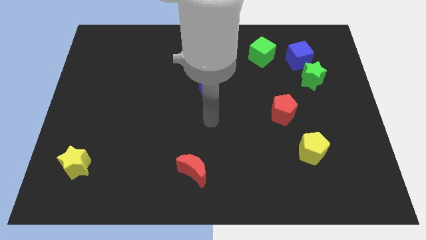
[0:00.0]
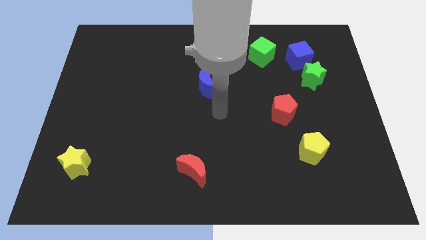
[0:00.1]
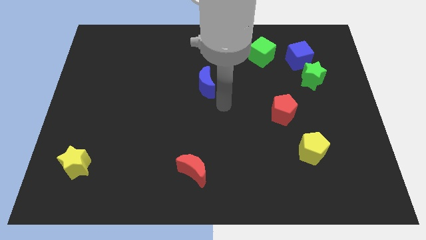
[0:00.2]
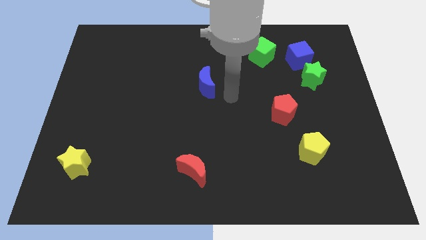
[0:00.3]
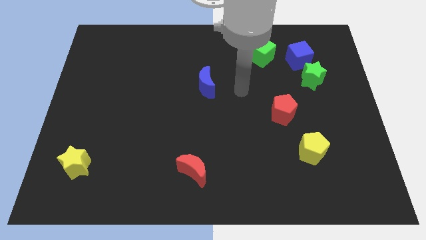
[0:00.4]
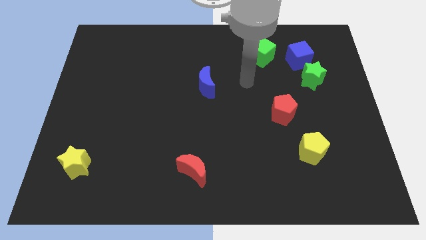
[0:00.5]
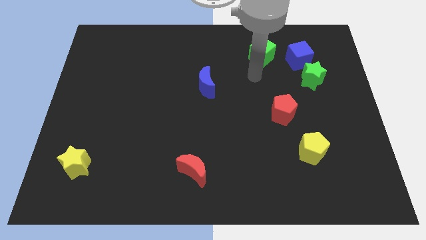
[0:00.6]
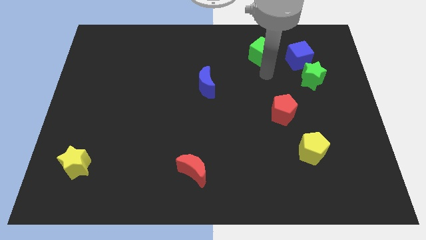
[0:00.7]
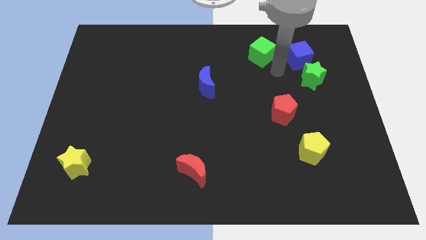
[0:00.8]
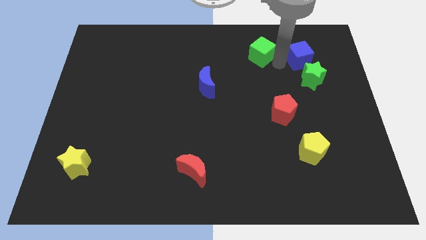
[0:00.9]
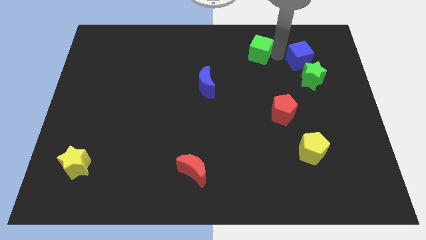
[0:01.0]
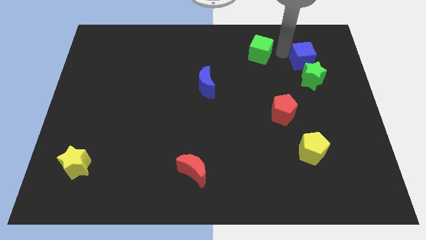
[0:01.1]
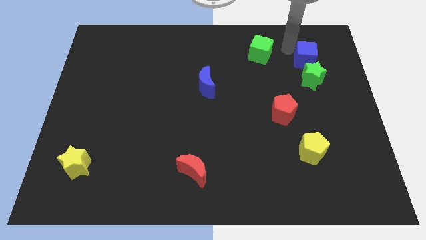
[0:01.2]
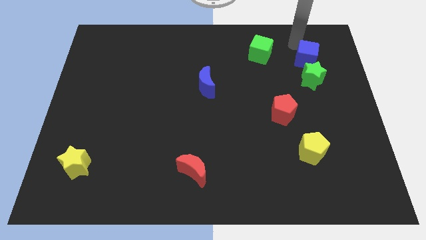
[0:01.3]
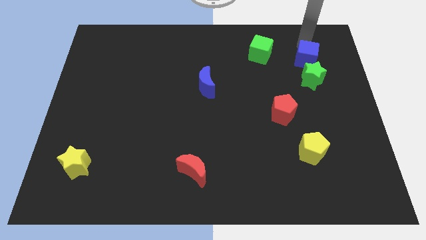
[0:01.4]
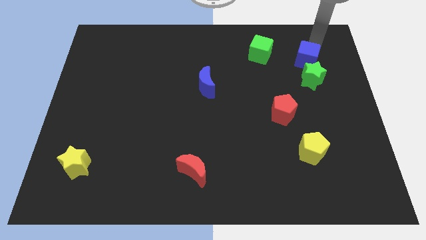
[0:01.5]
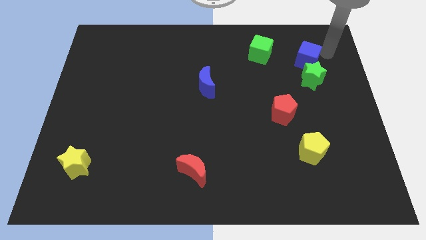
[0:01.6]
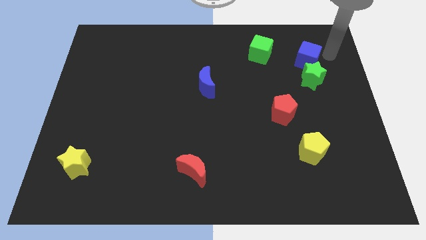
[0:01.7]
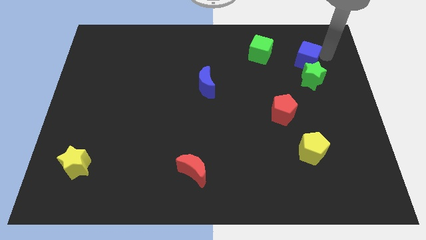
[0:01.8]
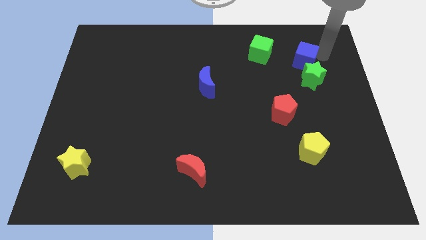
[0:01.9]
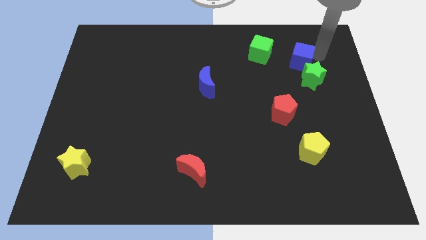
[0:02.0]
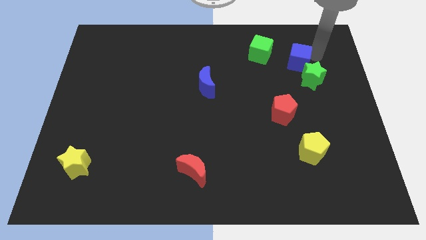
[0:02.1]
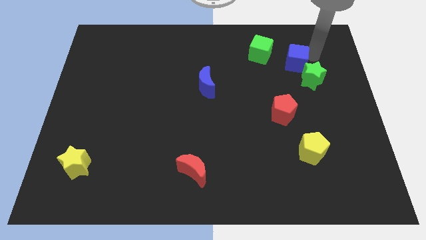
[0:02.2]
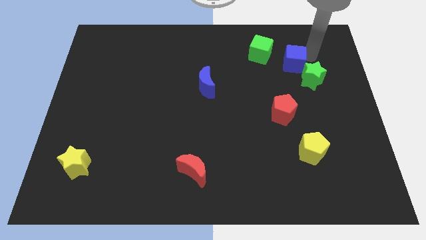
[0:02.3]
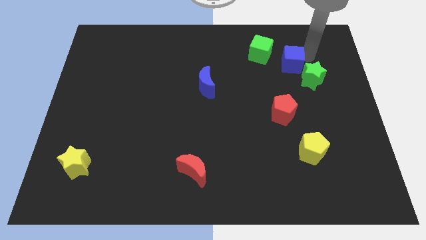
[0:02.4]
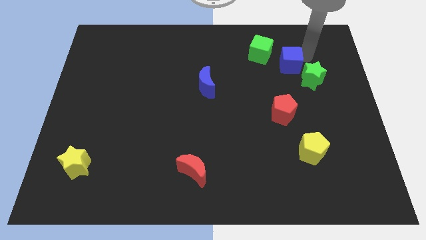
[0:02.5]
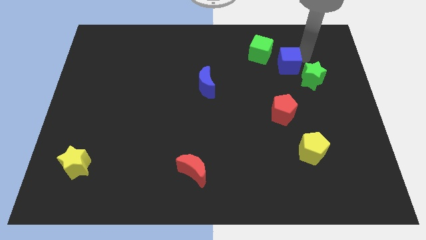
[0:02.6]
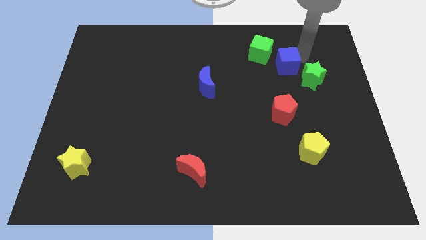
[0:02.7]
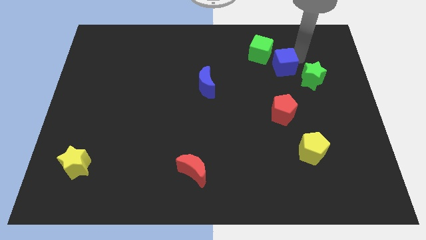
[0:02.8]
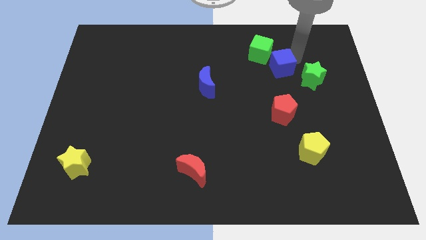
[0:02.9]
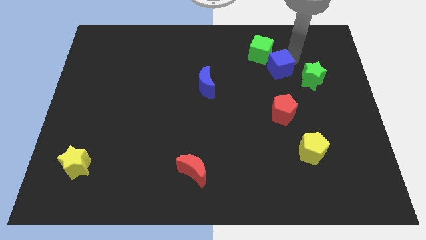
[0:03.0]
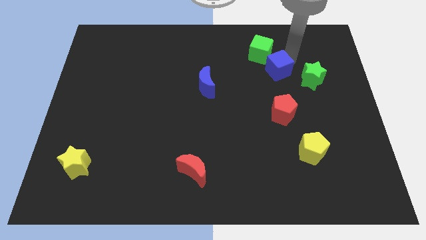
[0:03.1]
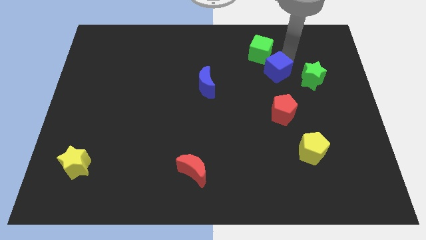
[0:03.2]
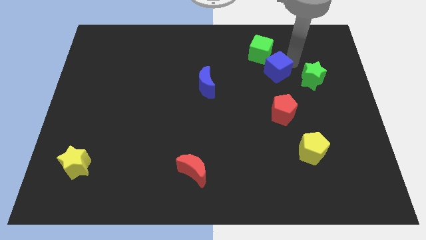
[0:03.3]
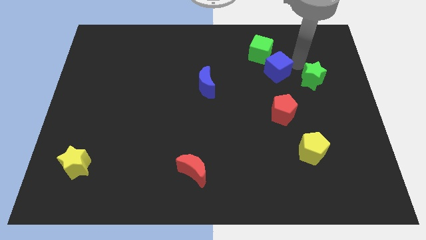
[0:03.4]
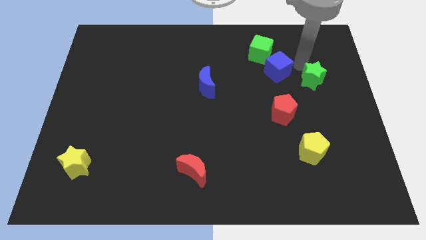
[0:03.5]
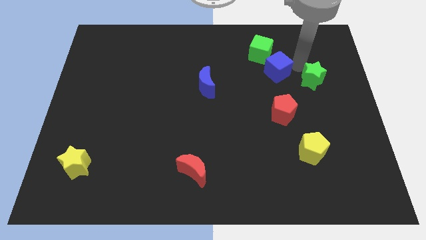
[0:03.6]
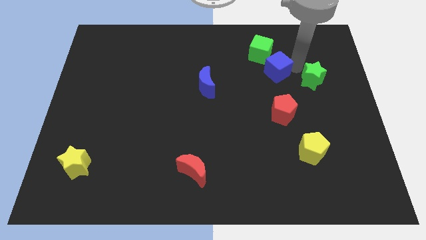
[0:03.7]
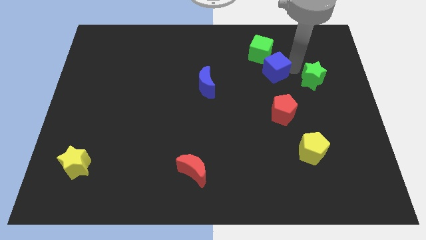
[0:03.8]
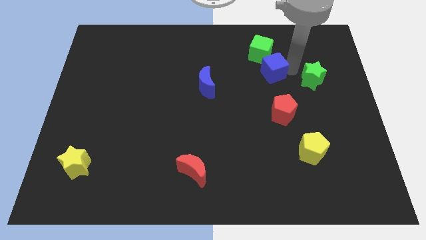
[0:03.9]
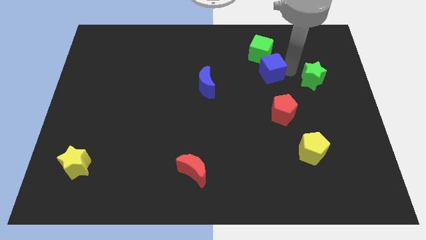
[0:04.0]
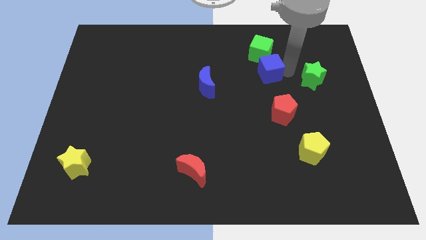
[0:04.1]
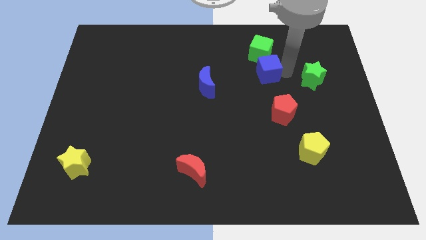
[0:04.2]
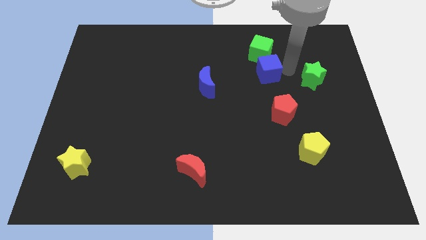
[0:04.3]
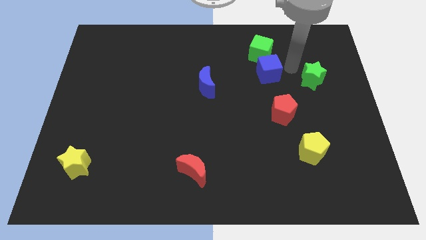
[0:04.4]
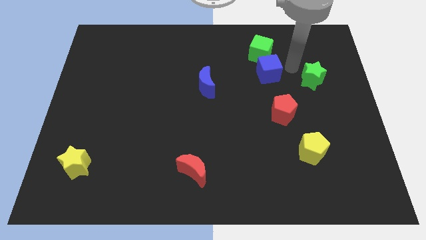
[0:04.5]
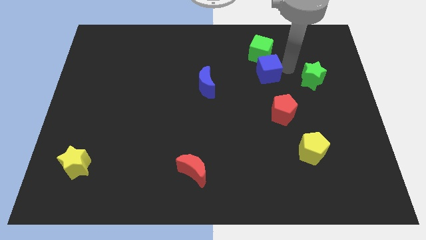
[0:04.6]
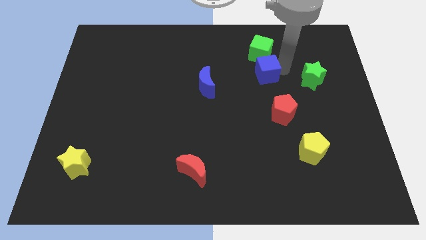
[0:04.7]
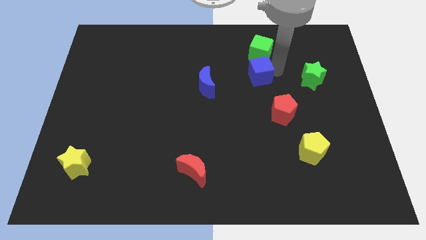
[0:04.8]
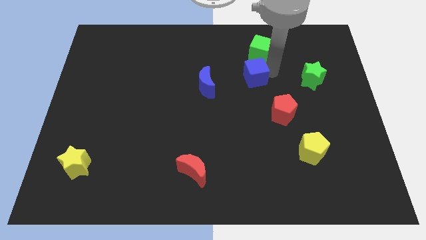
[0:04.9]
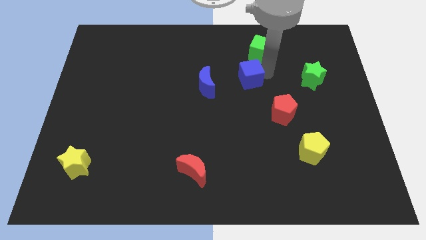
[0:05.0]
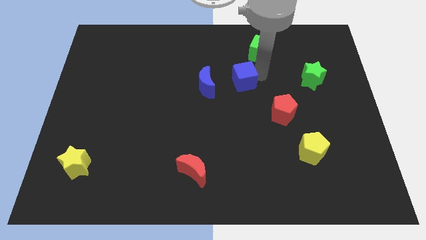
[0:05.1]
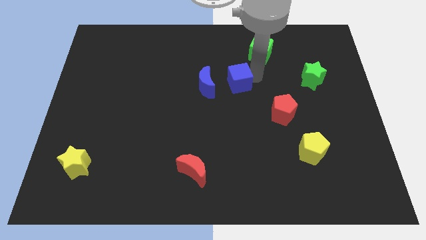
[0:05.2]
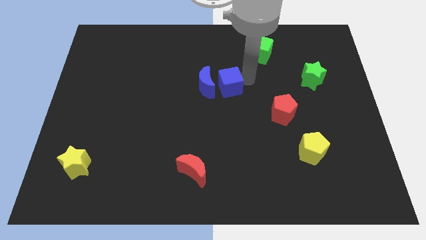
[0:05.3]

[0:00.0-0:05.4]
slide the blue cube towards the blue moon

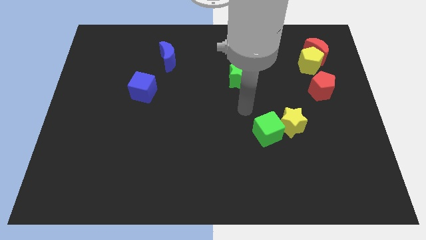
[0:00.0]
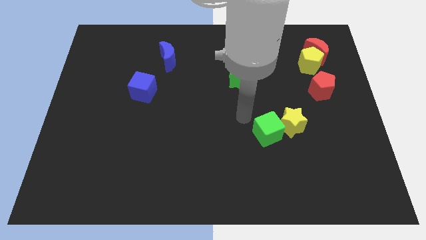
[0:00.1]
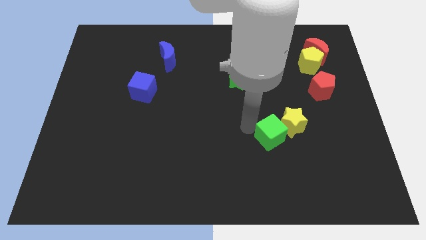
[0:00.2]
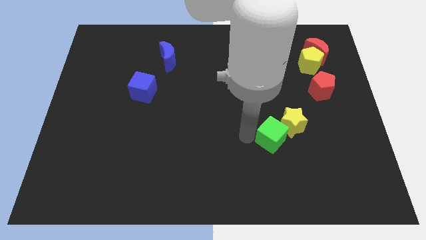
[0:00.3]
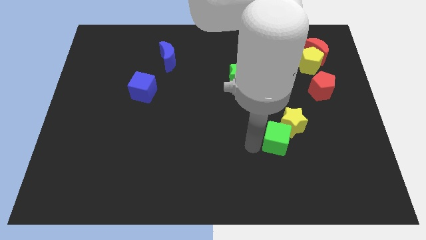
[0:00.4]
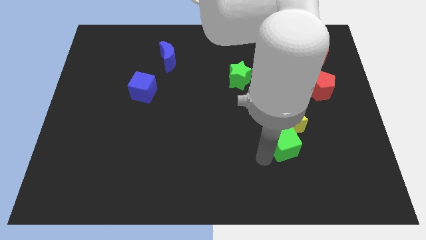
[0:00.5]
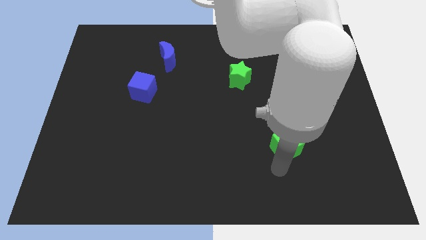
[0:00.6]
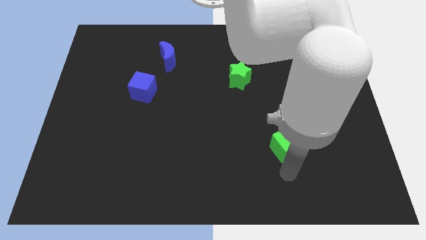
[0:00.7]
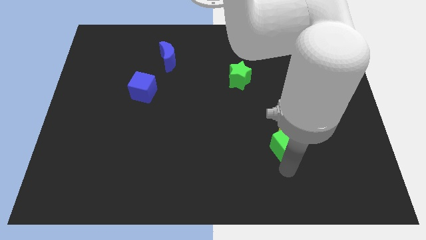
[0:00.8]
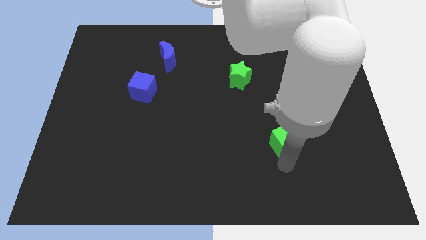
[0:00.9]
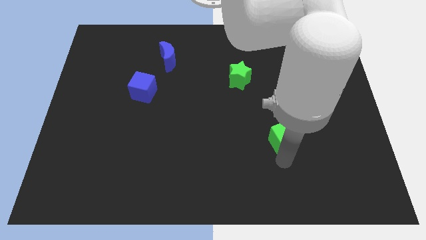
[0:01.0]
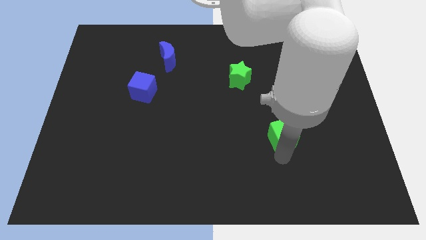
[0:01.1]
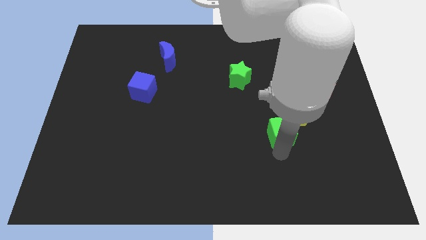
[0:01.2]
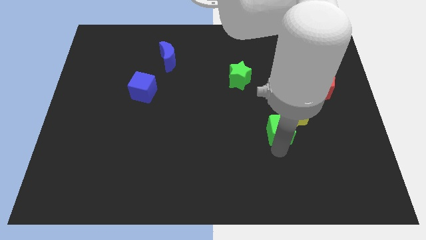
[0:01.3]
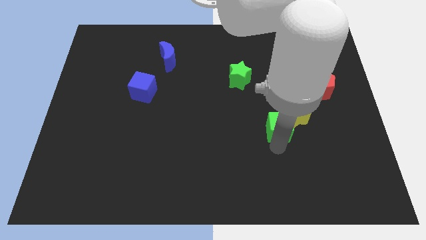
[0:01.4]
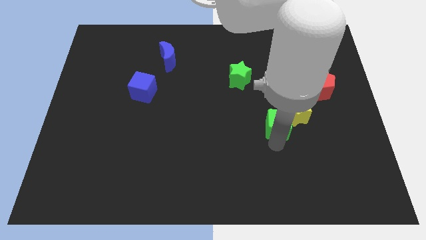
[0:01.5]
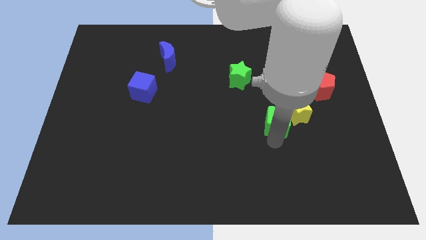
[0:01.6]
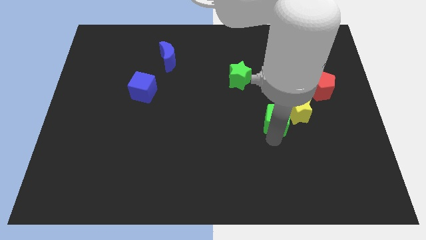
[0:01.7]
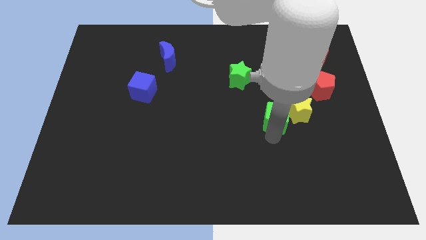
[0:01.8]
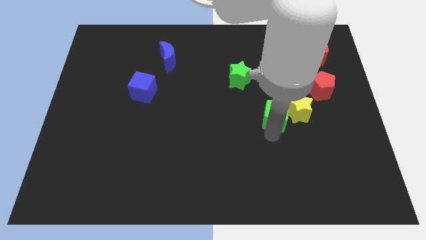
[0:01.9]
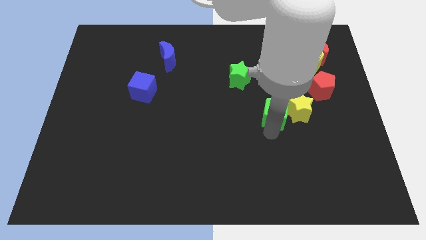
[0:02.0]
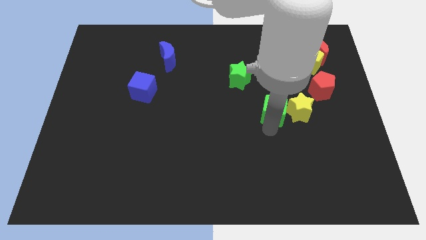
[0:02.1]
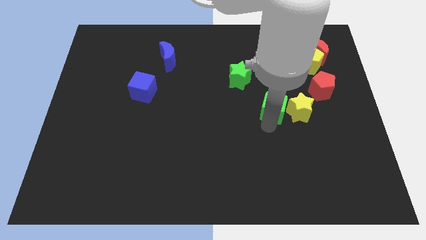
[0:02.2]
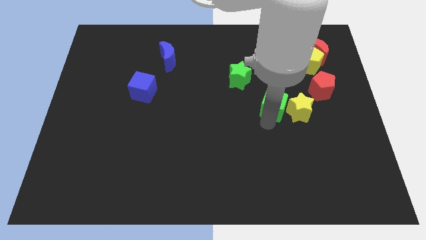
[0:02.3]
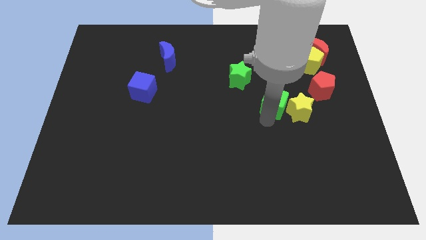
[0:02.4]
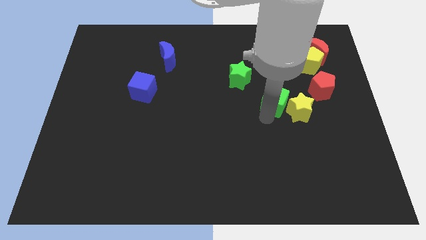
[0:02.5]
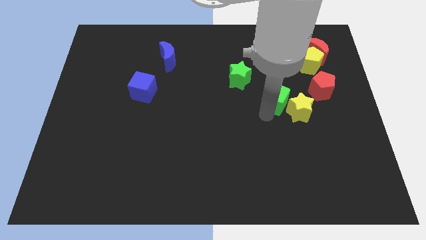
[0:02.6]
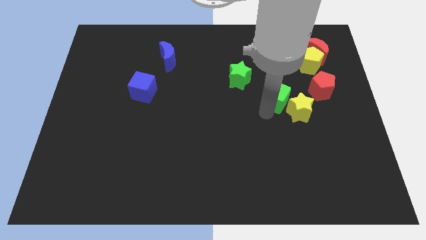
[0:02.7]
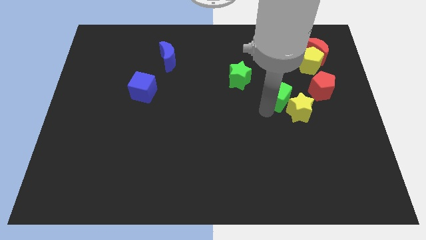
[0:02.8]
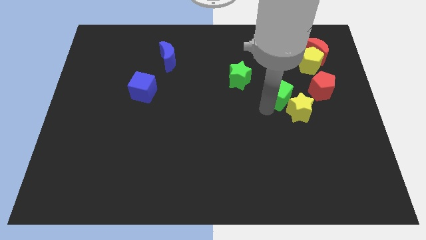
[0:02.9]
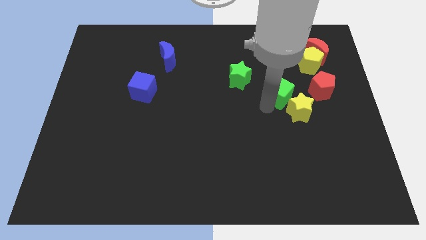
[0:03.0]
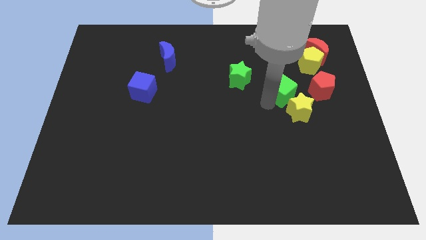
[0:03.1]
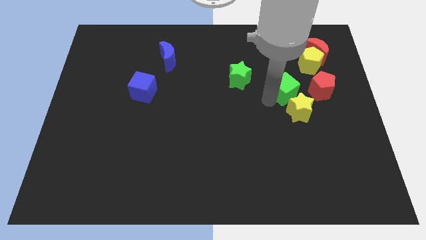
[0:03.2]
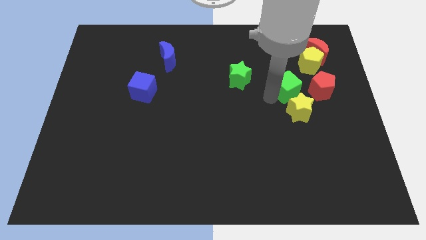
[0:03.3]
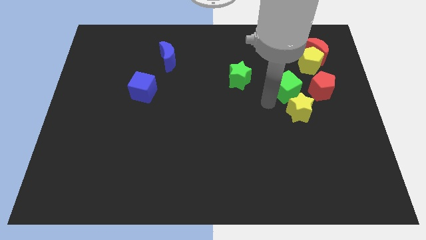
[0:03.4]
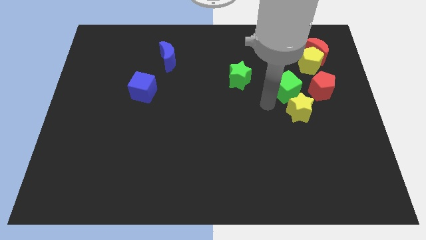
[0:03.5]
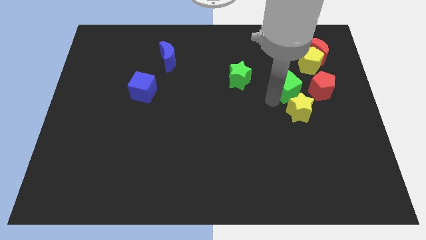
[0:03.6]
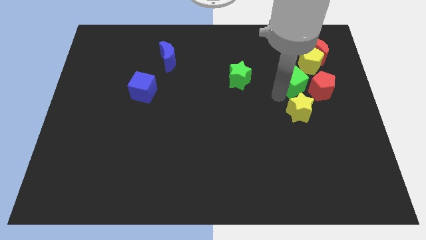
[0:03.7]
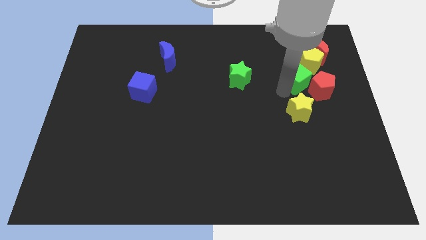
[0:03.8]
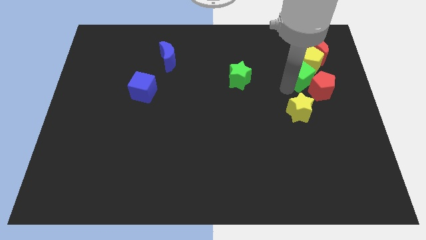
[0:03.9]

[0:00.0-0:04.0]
slide the green cube to the yellow pentagon
